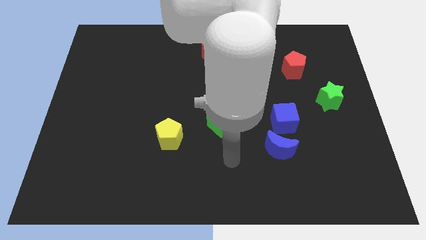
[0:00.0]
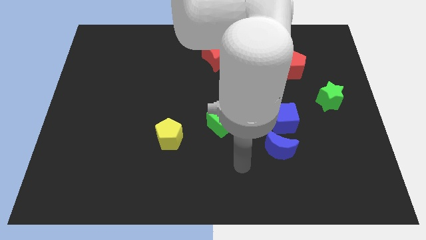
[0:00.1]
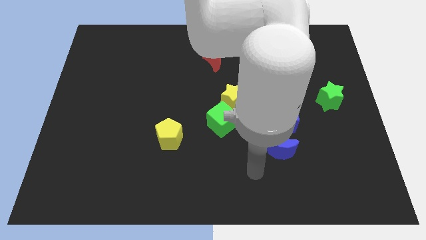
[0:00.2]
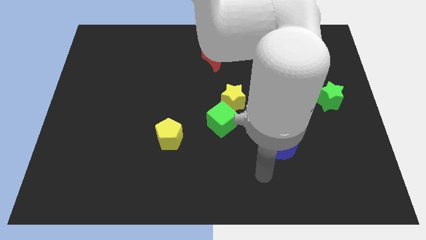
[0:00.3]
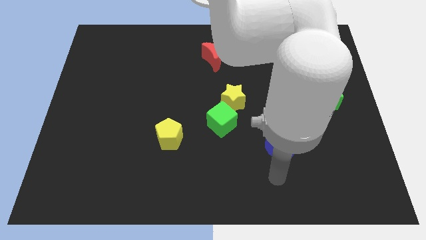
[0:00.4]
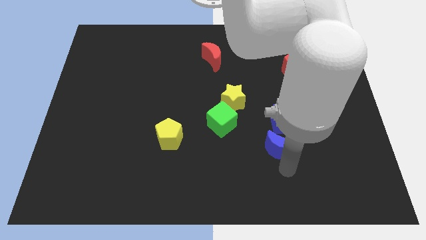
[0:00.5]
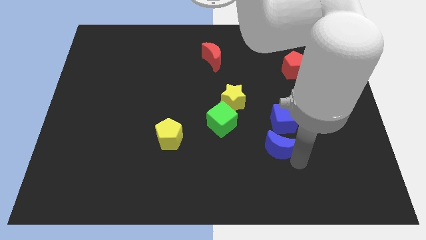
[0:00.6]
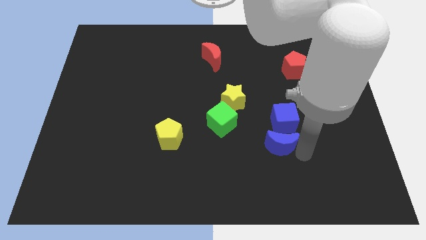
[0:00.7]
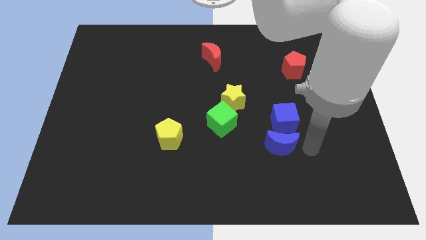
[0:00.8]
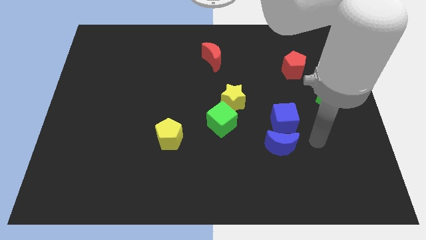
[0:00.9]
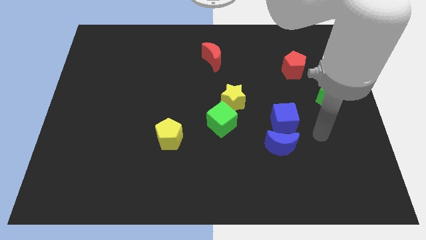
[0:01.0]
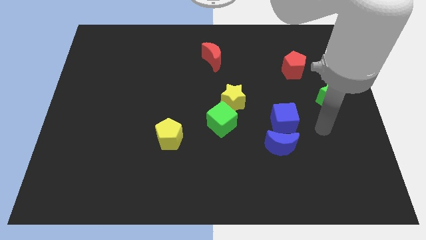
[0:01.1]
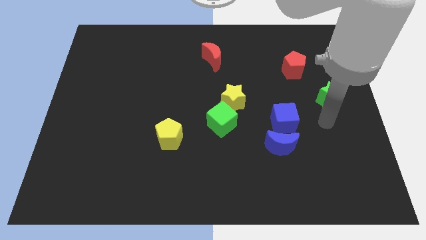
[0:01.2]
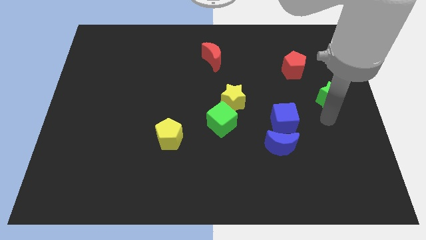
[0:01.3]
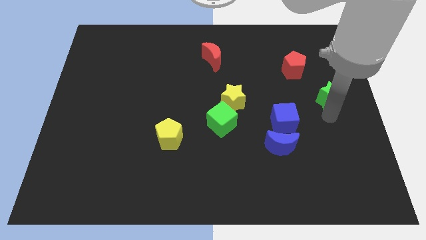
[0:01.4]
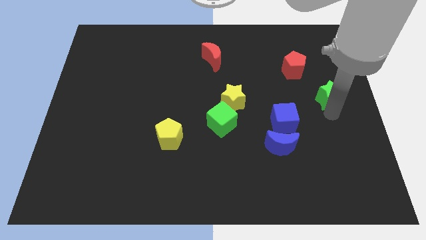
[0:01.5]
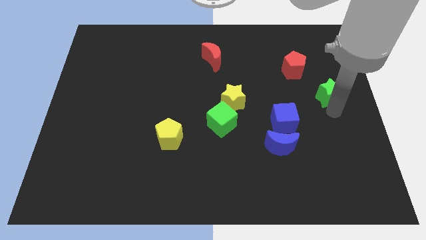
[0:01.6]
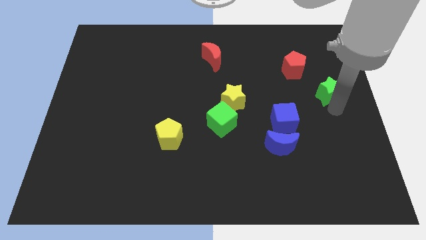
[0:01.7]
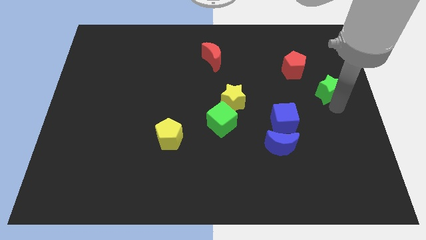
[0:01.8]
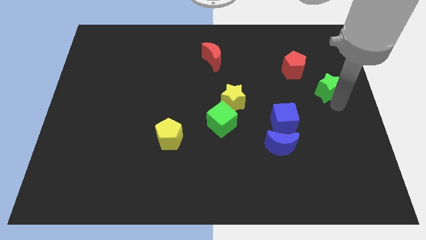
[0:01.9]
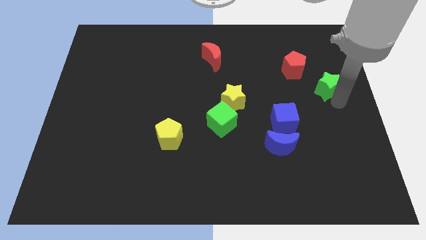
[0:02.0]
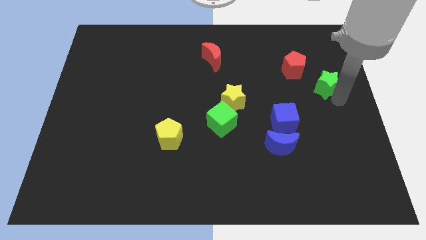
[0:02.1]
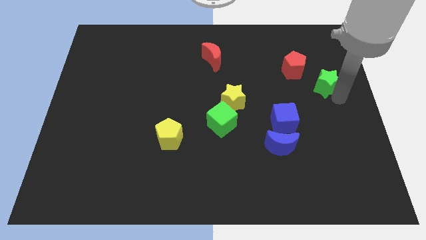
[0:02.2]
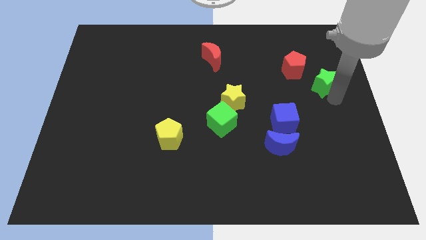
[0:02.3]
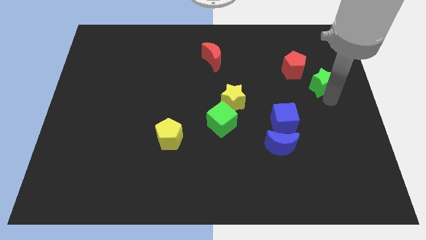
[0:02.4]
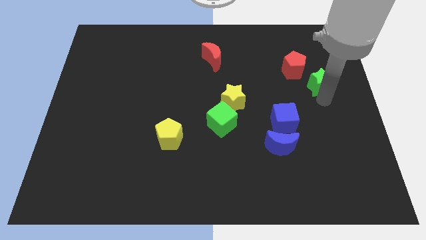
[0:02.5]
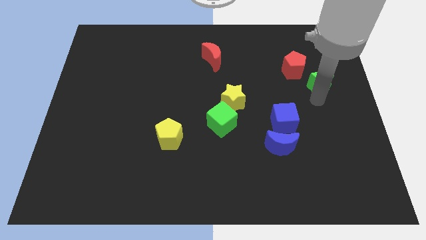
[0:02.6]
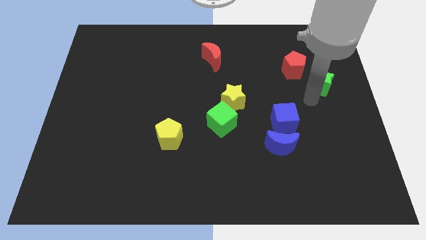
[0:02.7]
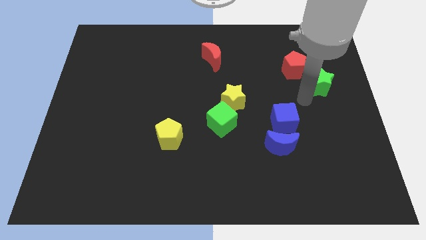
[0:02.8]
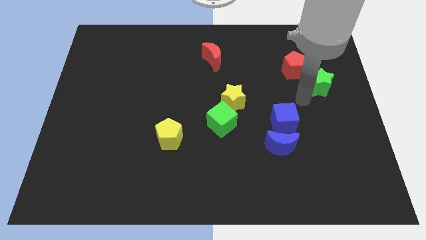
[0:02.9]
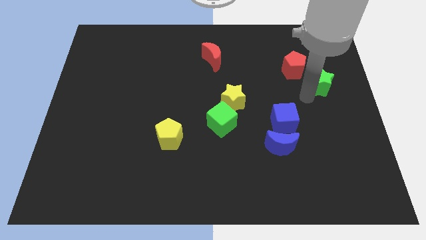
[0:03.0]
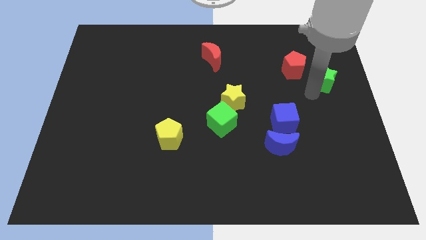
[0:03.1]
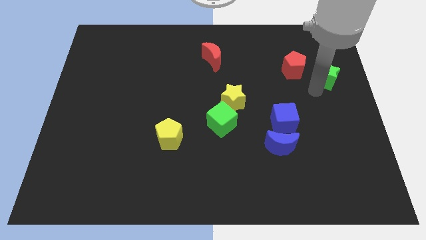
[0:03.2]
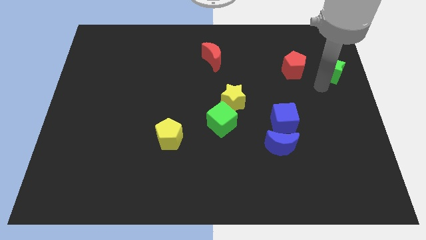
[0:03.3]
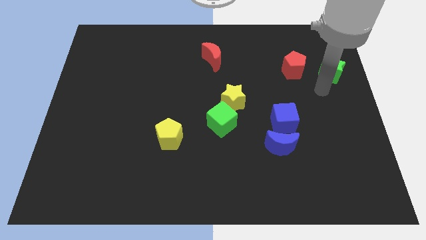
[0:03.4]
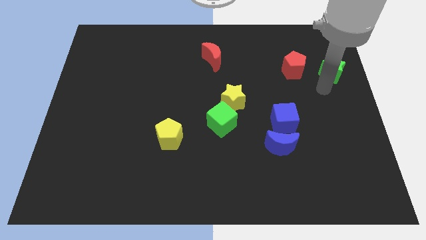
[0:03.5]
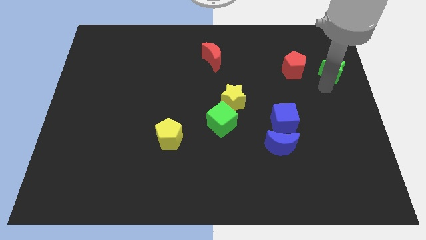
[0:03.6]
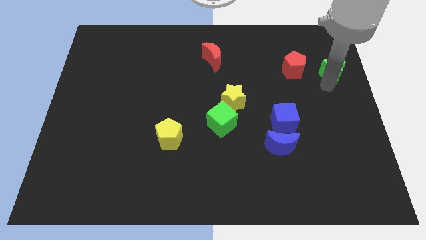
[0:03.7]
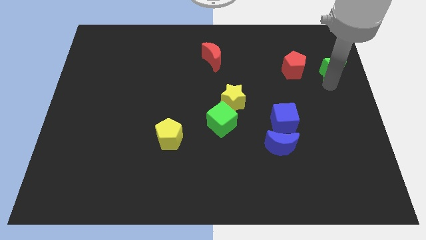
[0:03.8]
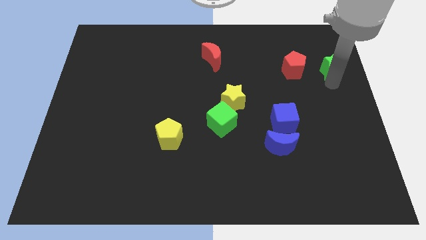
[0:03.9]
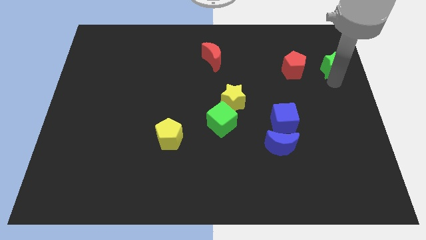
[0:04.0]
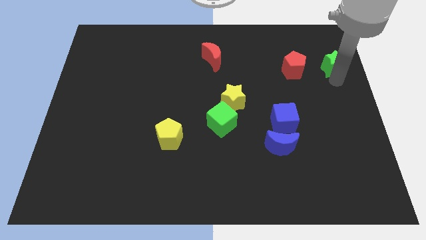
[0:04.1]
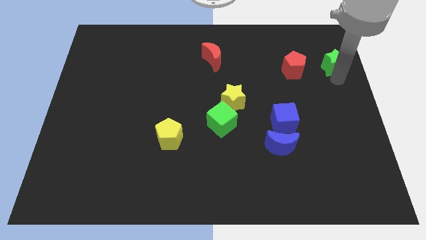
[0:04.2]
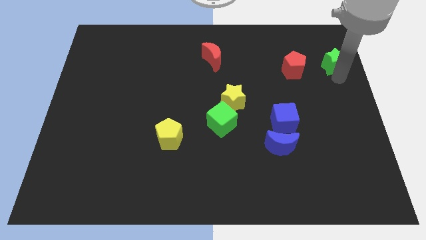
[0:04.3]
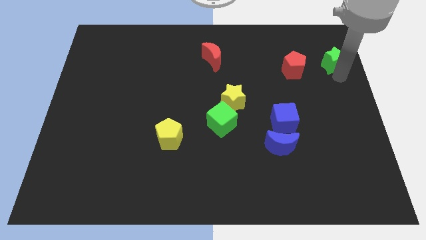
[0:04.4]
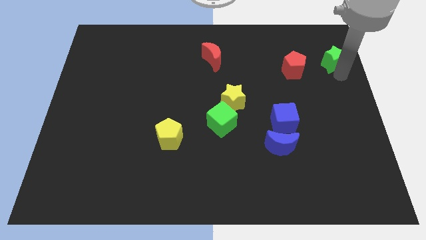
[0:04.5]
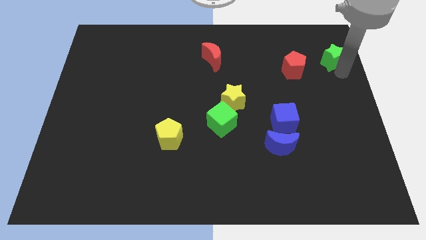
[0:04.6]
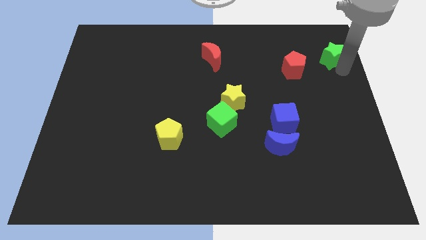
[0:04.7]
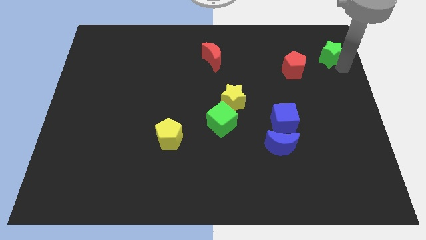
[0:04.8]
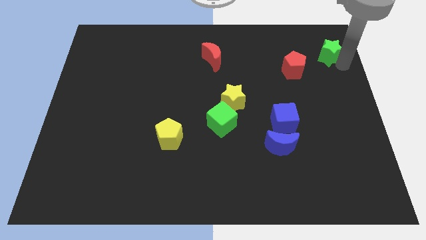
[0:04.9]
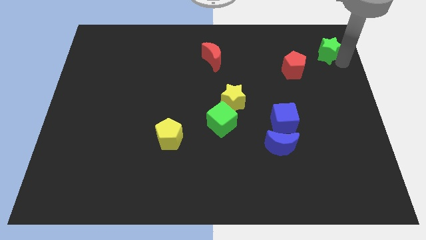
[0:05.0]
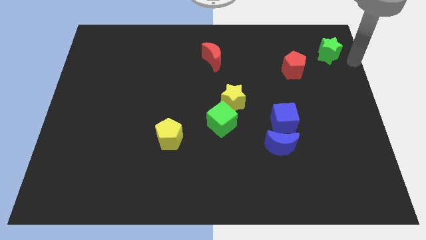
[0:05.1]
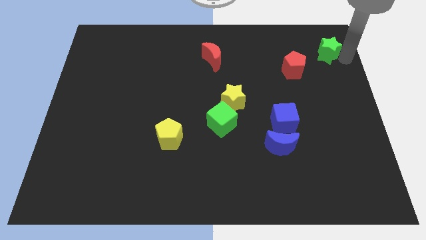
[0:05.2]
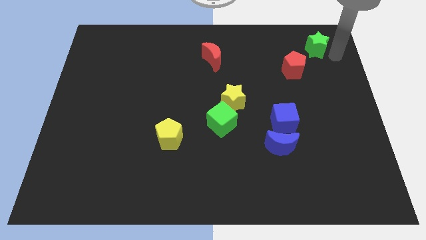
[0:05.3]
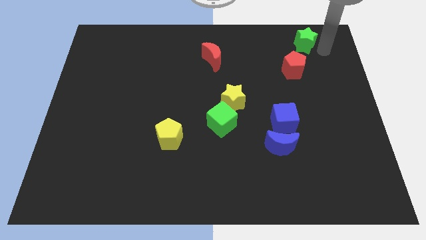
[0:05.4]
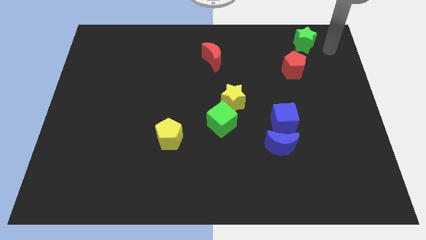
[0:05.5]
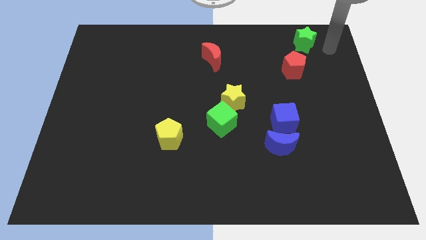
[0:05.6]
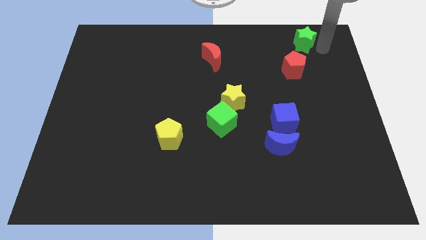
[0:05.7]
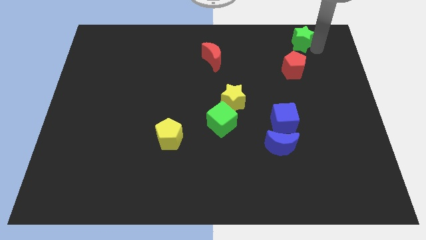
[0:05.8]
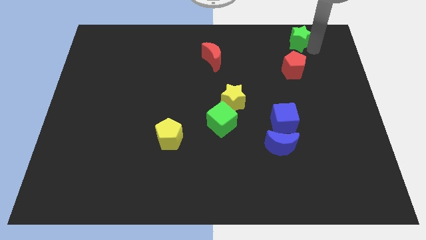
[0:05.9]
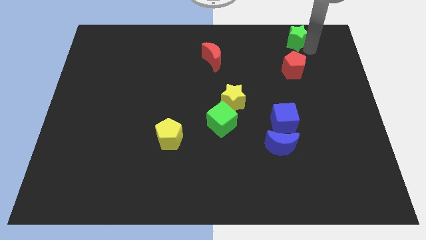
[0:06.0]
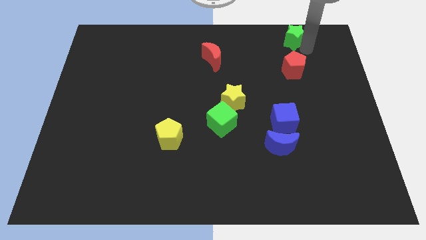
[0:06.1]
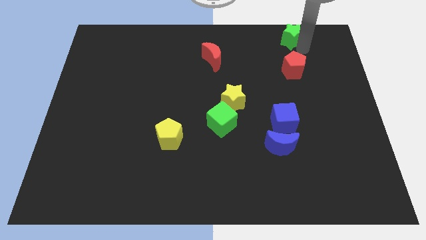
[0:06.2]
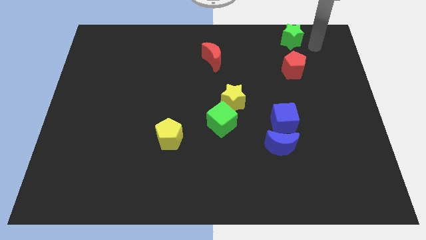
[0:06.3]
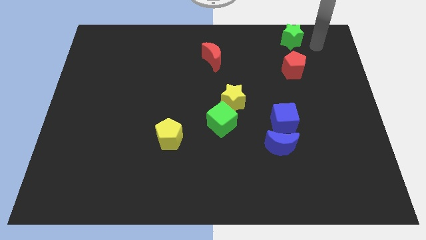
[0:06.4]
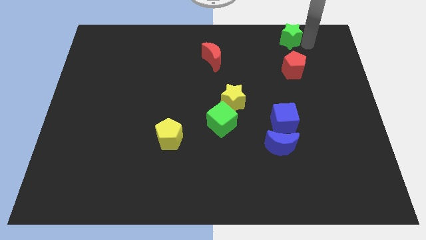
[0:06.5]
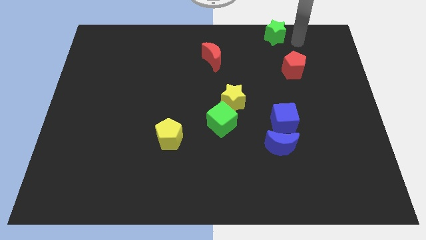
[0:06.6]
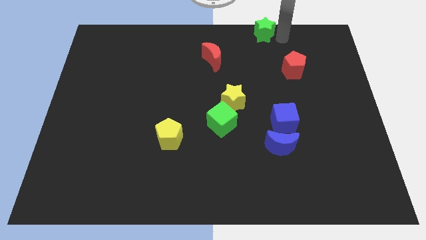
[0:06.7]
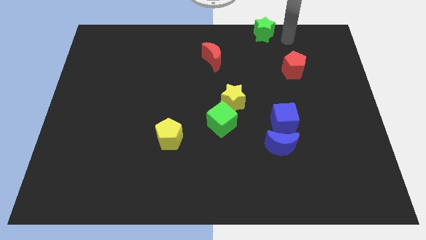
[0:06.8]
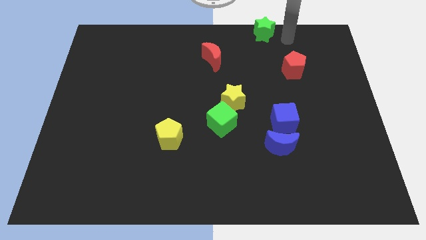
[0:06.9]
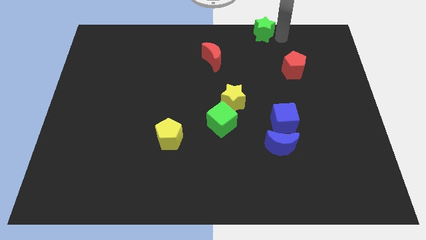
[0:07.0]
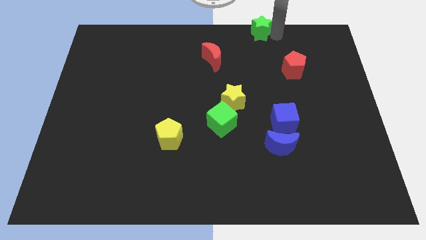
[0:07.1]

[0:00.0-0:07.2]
slide the green star to the top side

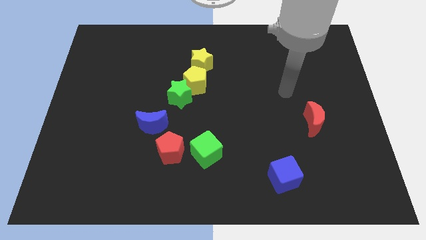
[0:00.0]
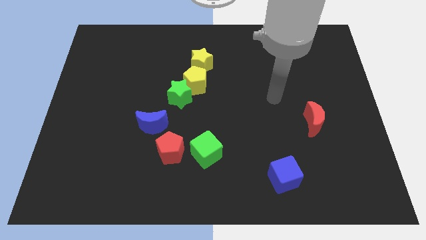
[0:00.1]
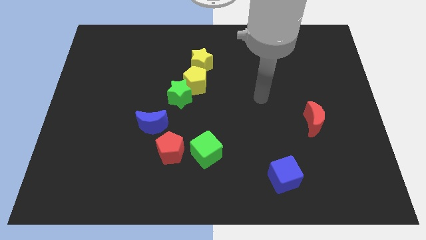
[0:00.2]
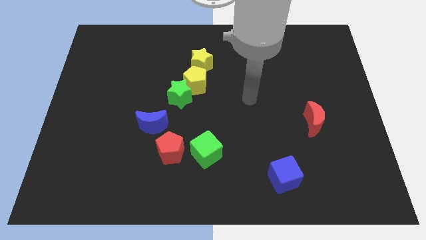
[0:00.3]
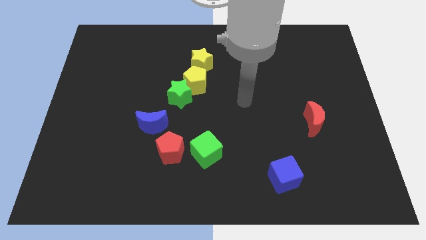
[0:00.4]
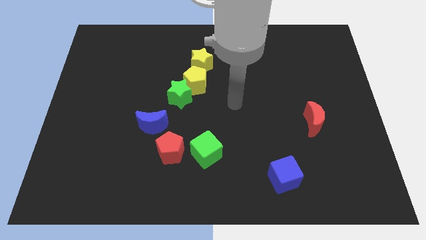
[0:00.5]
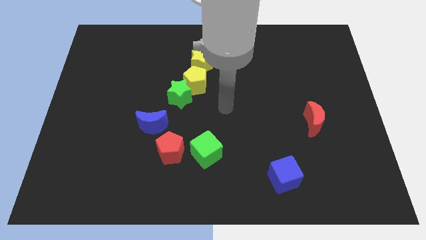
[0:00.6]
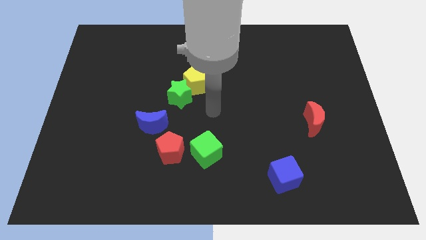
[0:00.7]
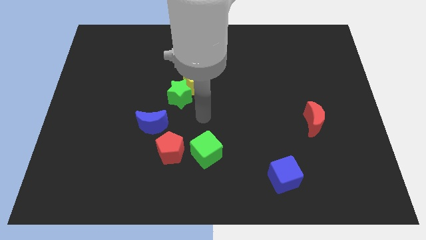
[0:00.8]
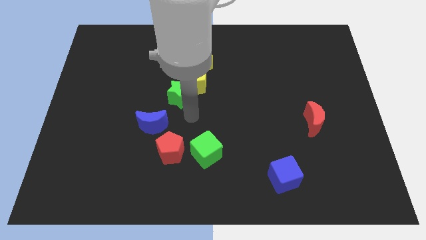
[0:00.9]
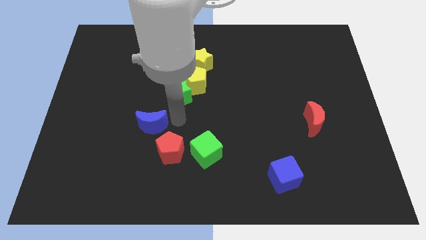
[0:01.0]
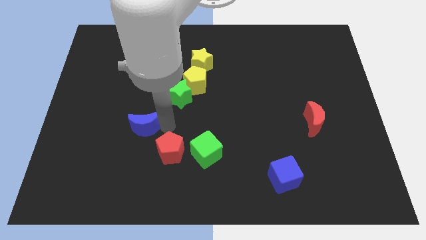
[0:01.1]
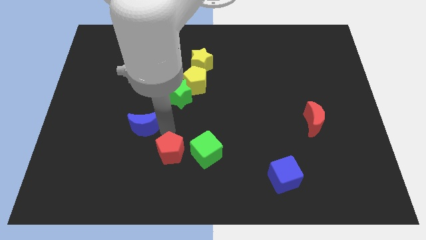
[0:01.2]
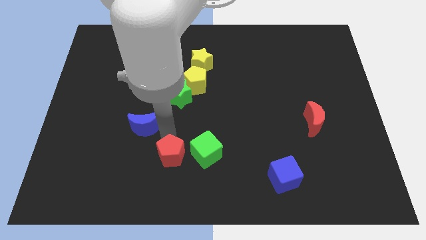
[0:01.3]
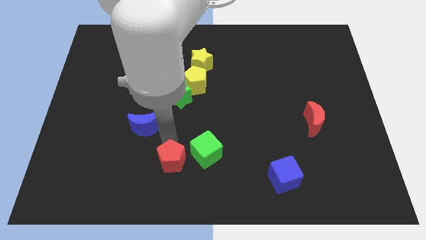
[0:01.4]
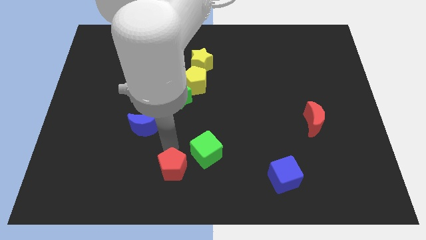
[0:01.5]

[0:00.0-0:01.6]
push the red pentagon to the bottom
